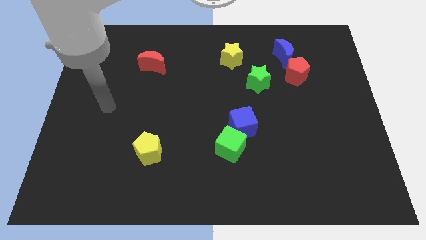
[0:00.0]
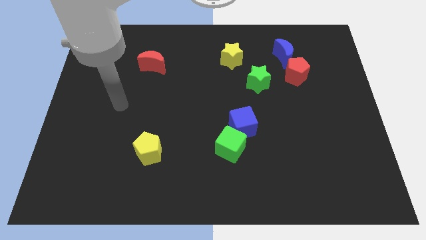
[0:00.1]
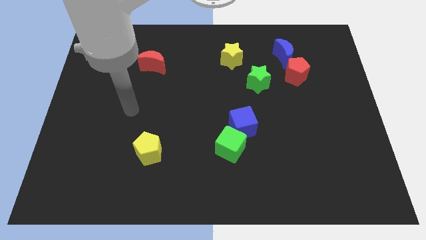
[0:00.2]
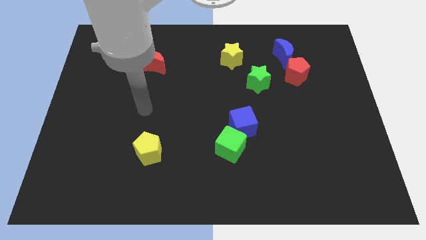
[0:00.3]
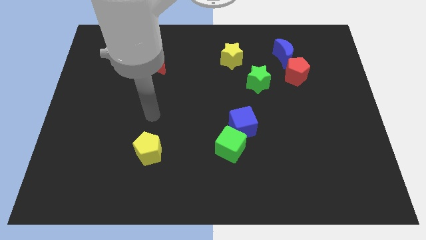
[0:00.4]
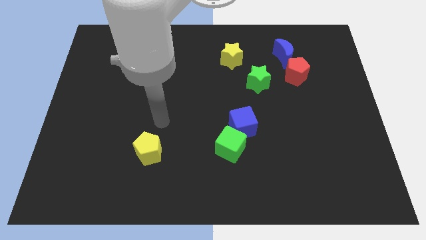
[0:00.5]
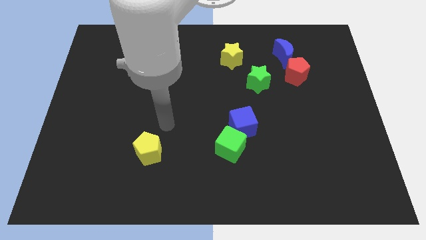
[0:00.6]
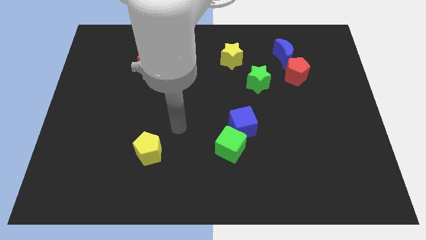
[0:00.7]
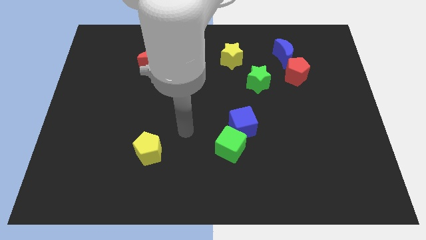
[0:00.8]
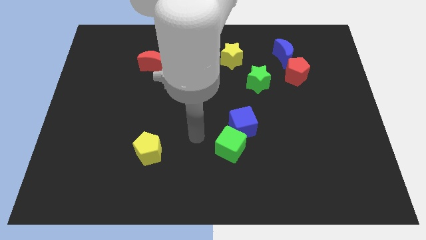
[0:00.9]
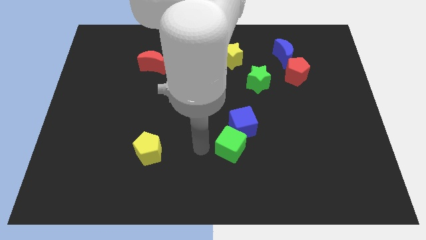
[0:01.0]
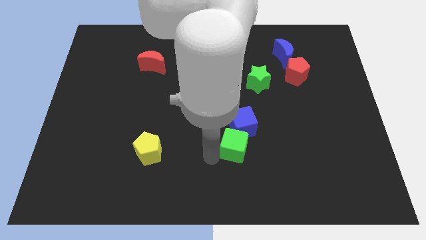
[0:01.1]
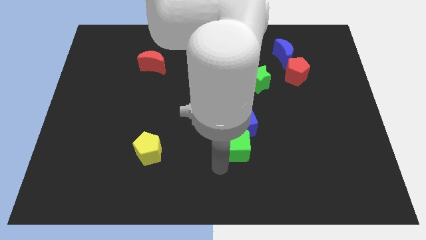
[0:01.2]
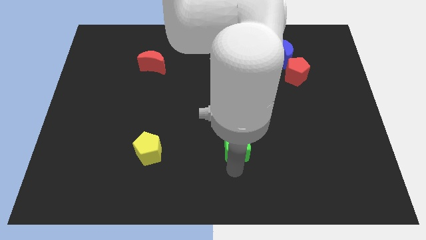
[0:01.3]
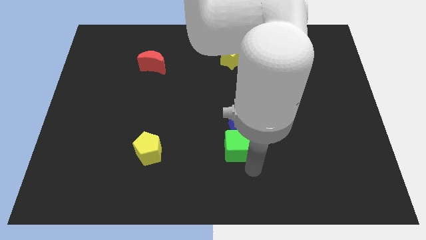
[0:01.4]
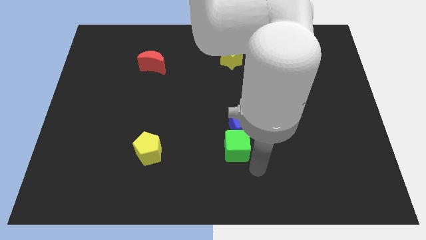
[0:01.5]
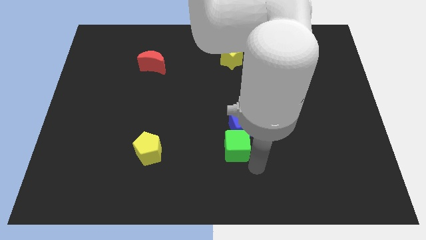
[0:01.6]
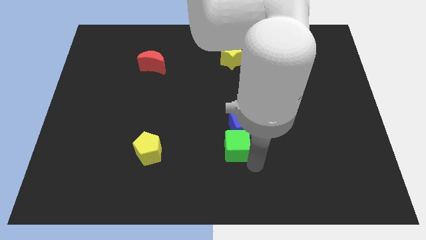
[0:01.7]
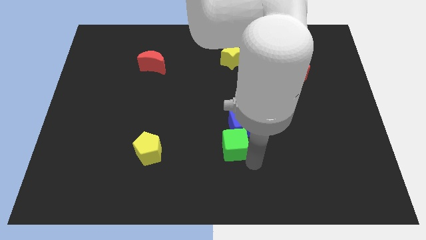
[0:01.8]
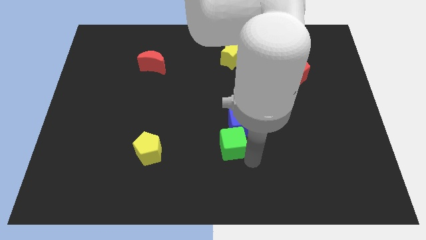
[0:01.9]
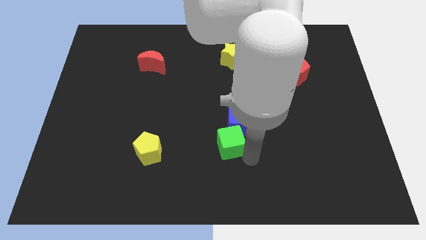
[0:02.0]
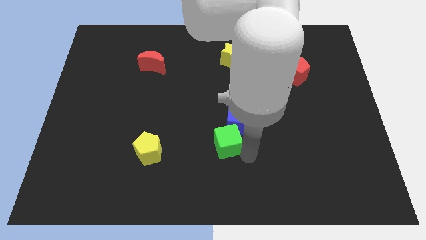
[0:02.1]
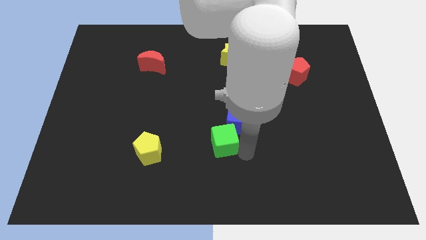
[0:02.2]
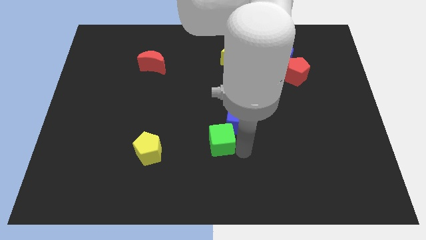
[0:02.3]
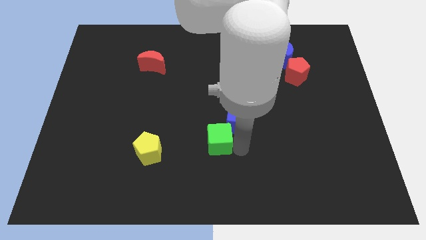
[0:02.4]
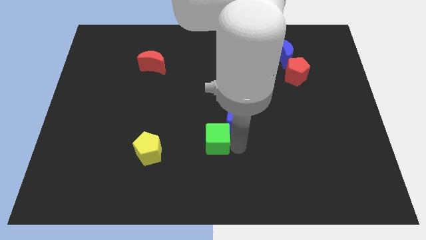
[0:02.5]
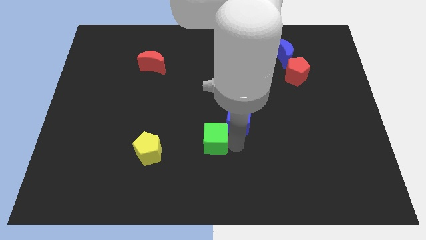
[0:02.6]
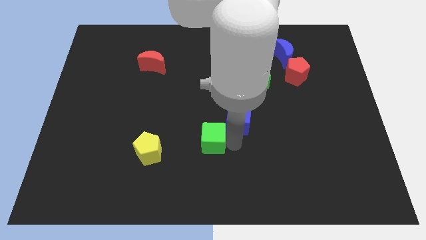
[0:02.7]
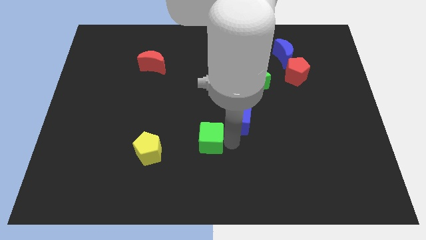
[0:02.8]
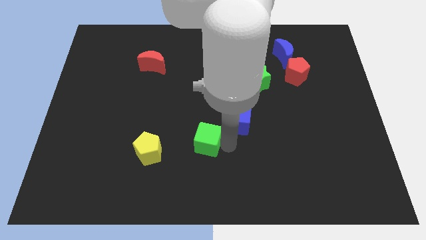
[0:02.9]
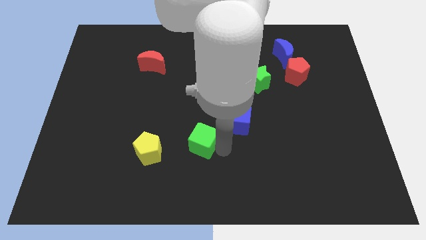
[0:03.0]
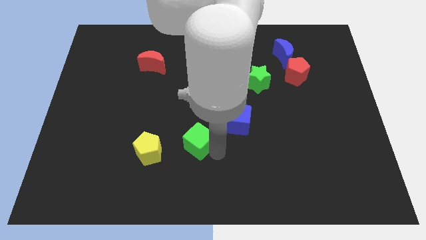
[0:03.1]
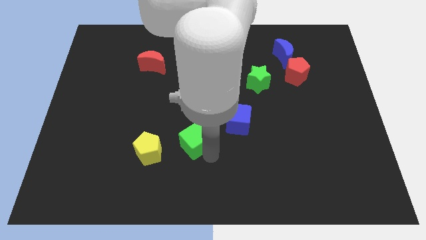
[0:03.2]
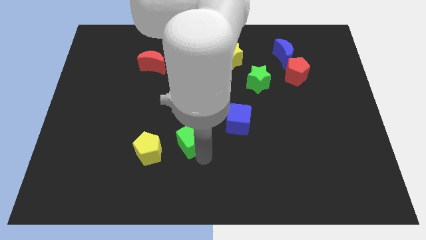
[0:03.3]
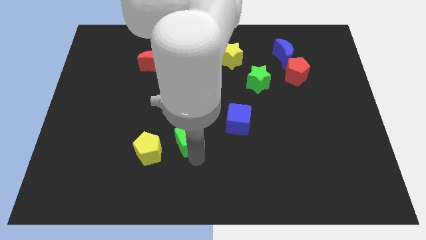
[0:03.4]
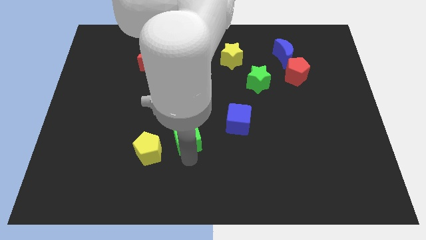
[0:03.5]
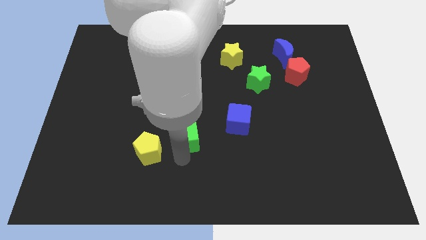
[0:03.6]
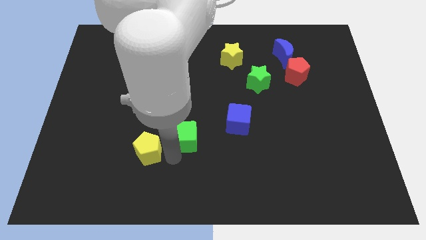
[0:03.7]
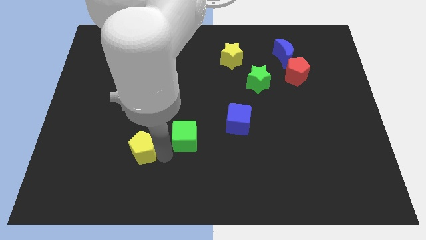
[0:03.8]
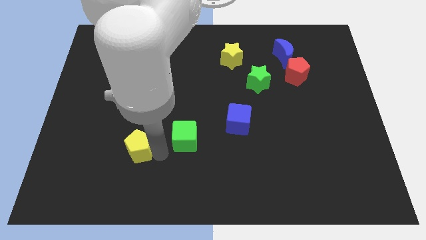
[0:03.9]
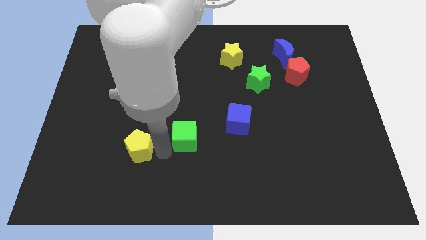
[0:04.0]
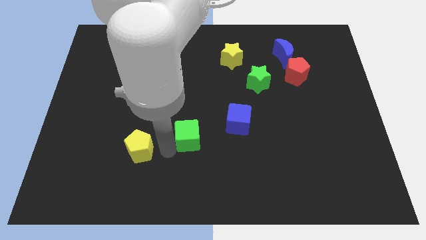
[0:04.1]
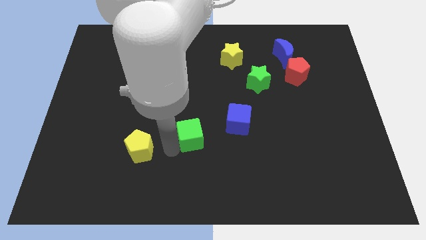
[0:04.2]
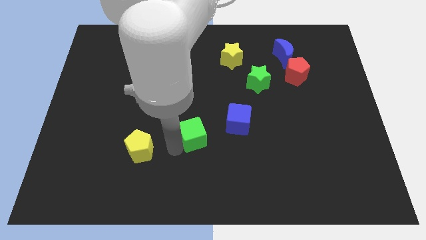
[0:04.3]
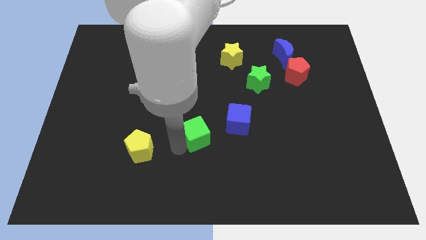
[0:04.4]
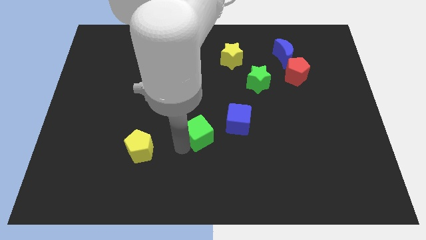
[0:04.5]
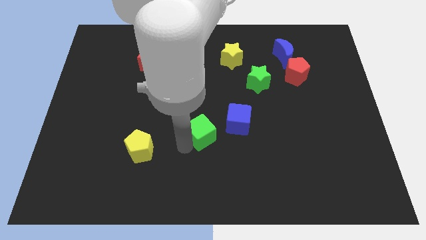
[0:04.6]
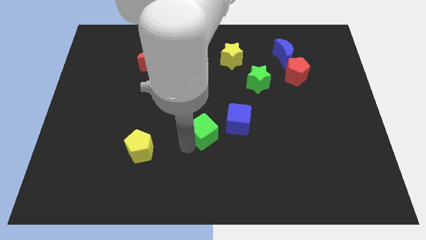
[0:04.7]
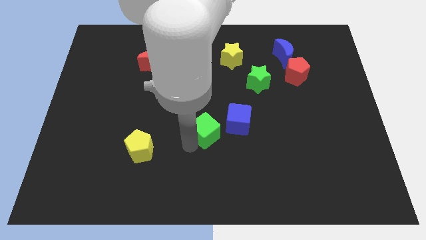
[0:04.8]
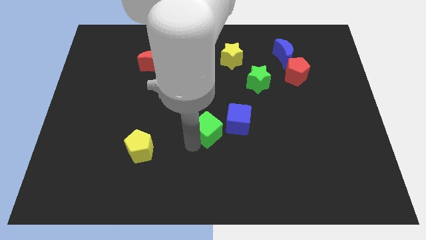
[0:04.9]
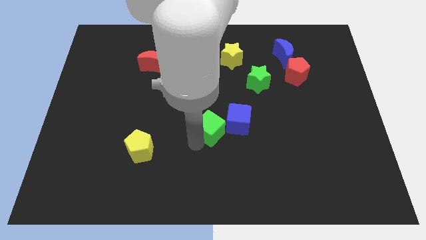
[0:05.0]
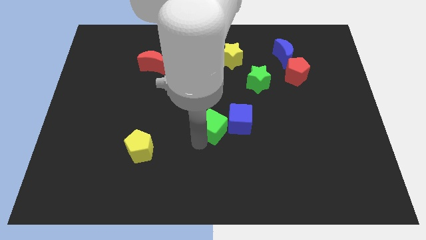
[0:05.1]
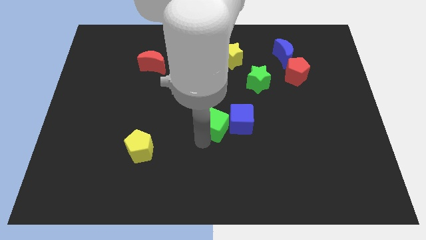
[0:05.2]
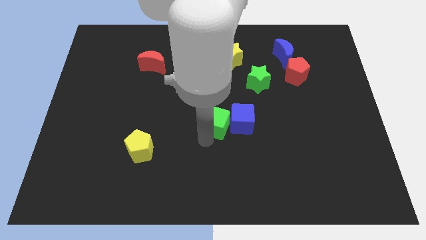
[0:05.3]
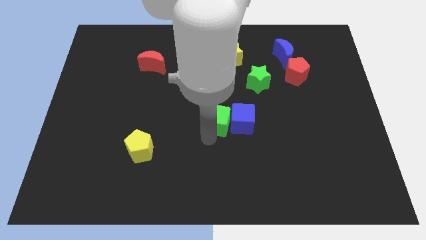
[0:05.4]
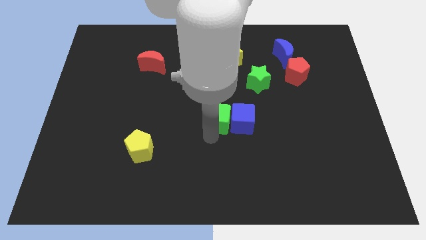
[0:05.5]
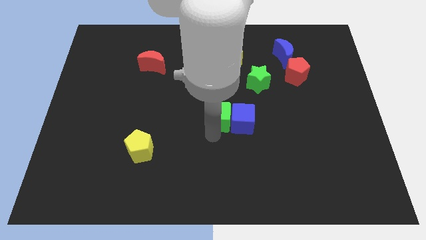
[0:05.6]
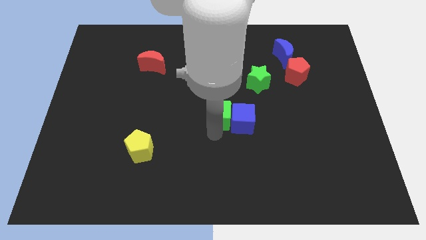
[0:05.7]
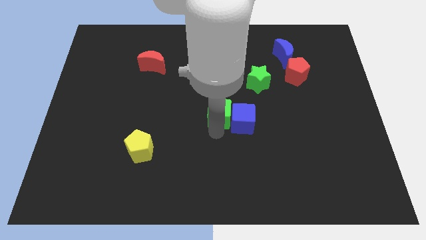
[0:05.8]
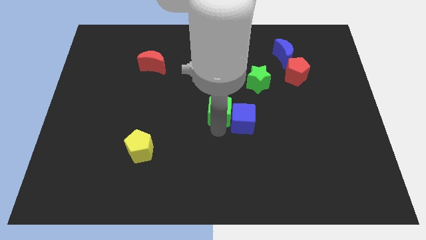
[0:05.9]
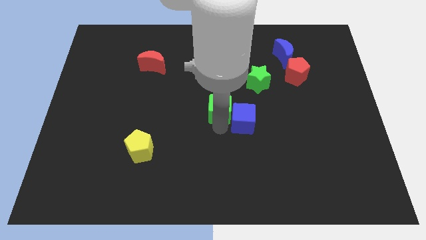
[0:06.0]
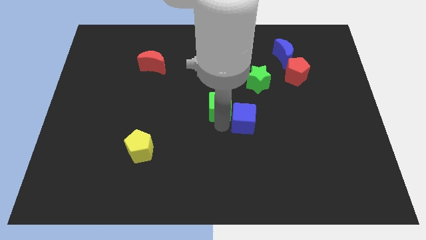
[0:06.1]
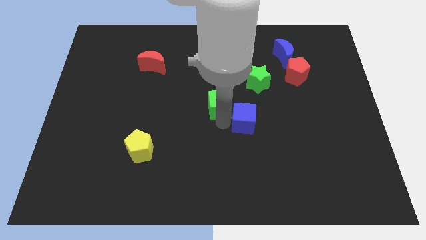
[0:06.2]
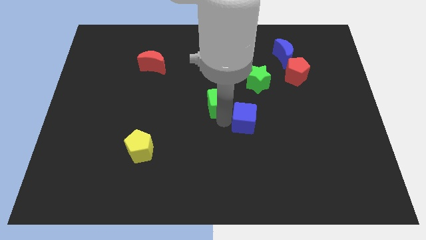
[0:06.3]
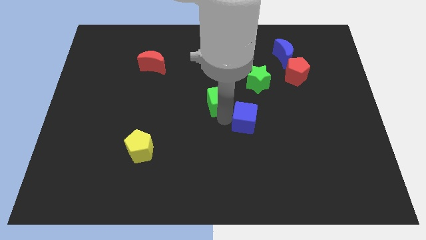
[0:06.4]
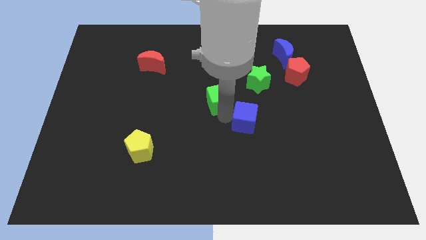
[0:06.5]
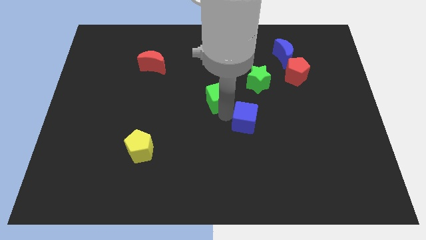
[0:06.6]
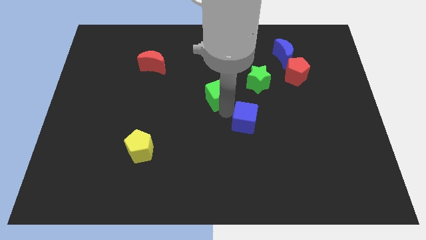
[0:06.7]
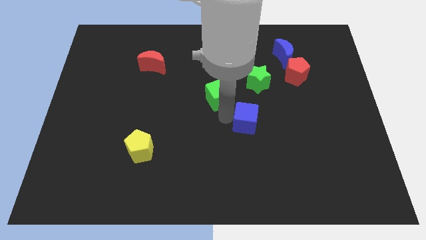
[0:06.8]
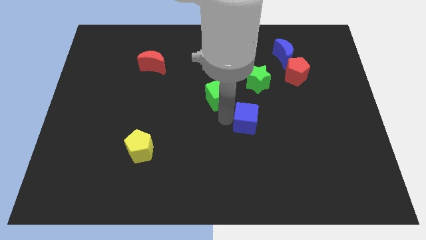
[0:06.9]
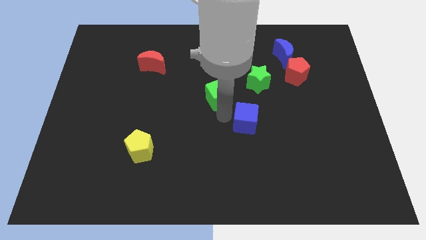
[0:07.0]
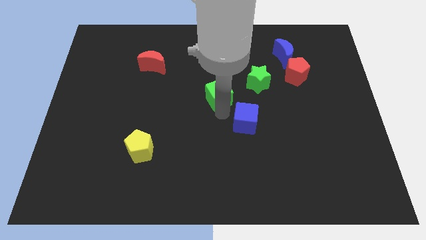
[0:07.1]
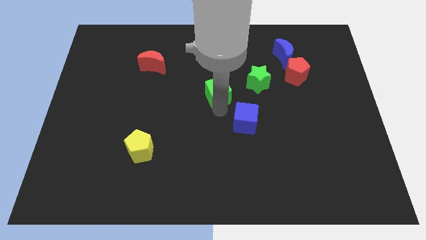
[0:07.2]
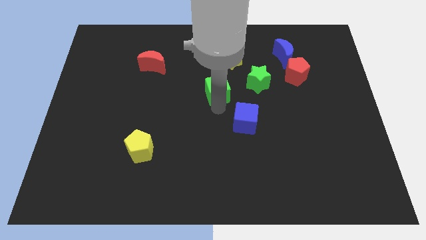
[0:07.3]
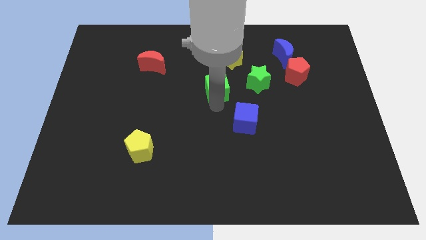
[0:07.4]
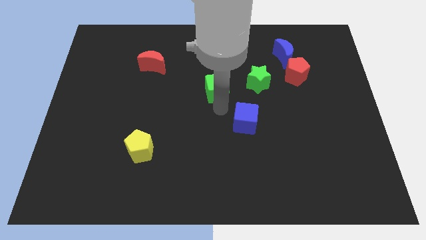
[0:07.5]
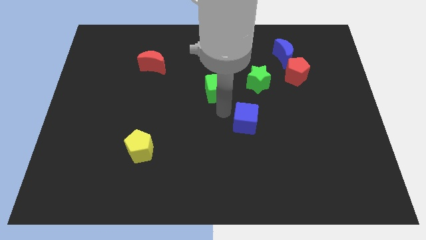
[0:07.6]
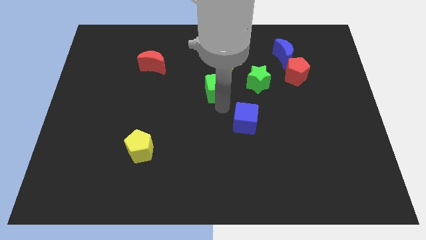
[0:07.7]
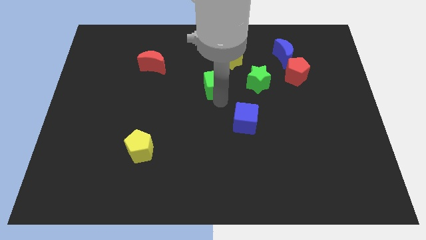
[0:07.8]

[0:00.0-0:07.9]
put the green cube to the bottom left of the yellow star
